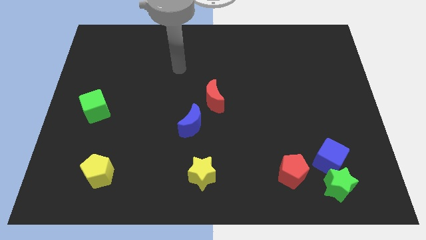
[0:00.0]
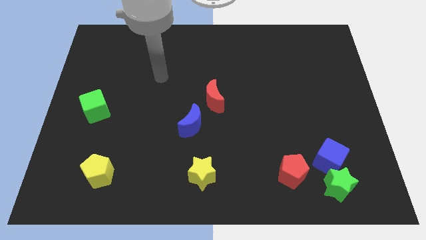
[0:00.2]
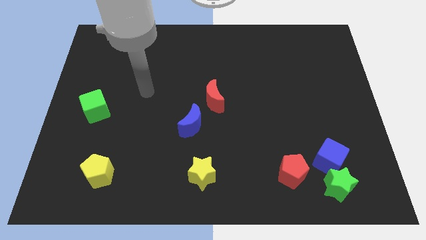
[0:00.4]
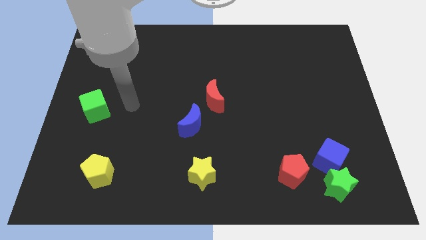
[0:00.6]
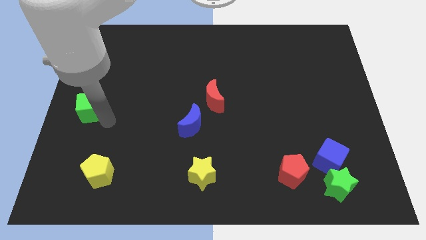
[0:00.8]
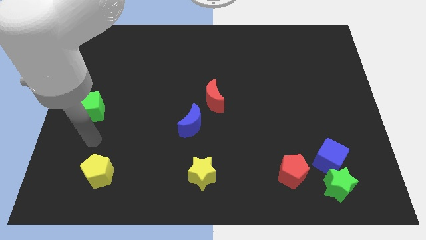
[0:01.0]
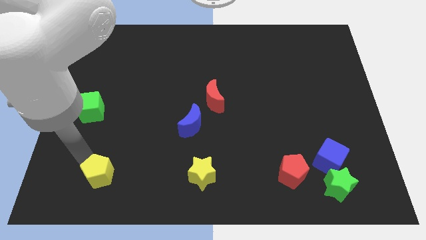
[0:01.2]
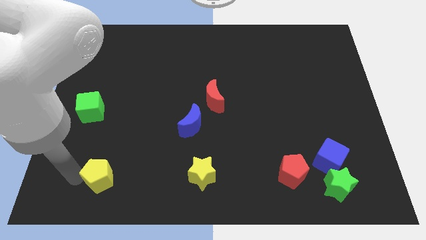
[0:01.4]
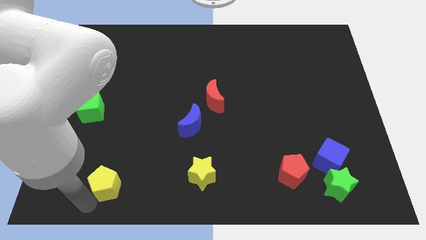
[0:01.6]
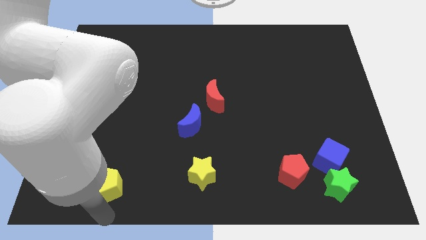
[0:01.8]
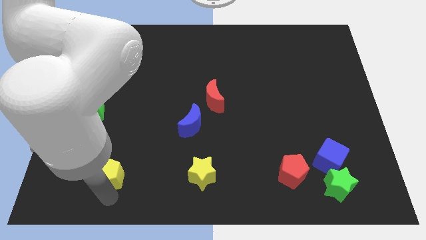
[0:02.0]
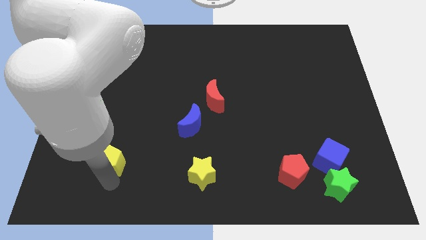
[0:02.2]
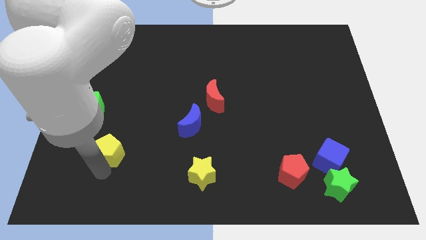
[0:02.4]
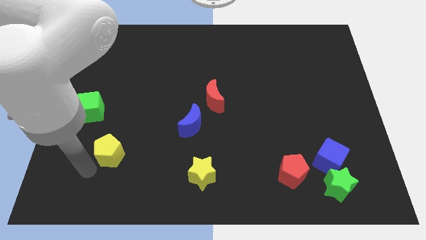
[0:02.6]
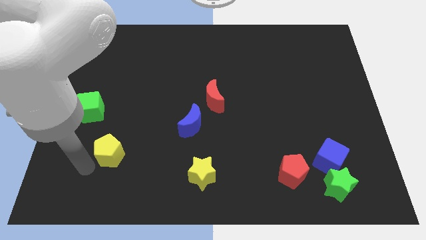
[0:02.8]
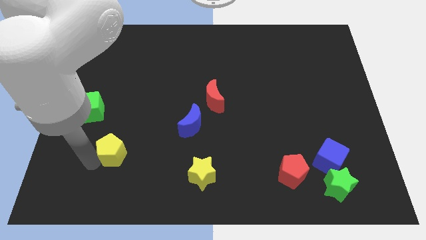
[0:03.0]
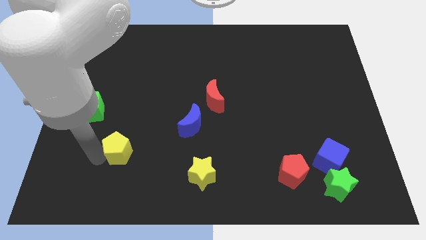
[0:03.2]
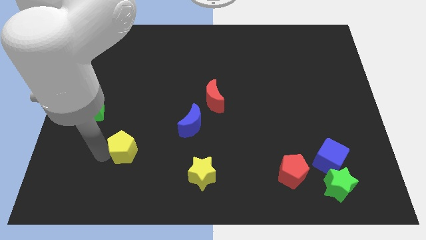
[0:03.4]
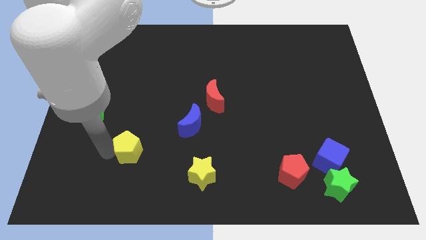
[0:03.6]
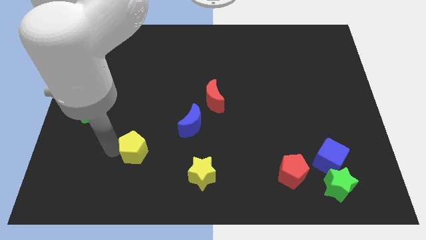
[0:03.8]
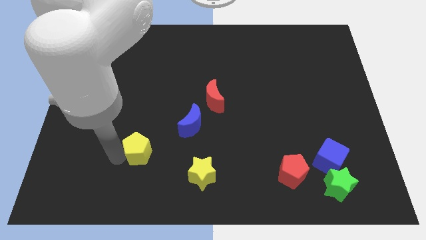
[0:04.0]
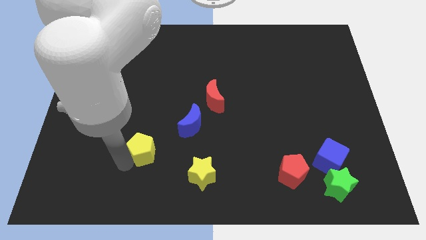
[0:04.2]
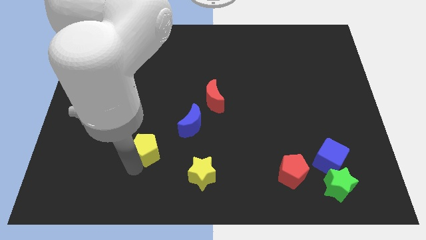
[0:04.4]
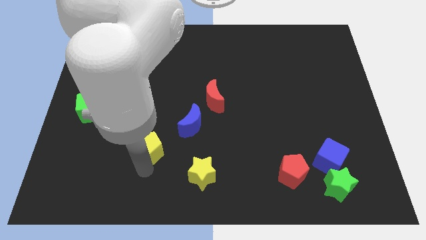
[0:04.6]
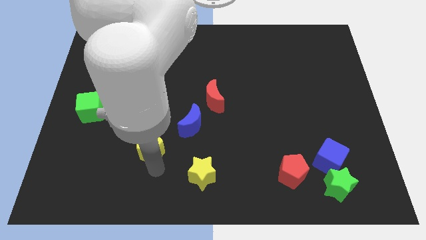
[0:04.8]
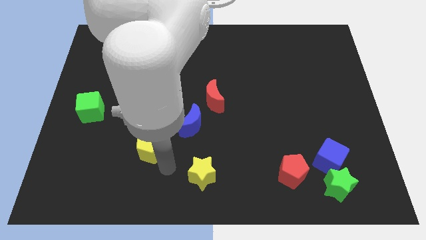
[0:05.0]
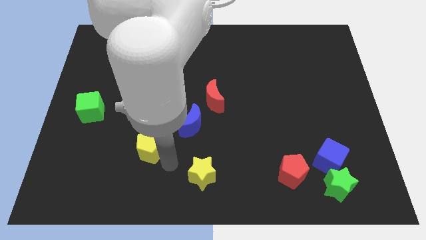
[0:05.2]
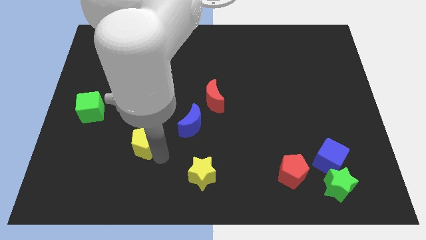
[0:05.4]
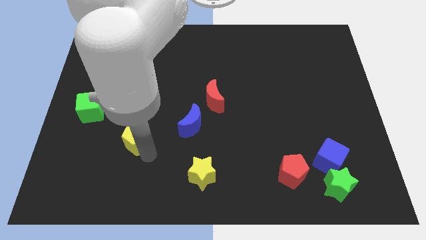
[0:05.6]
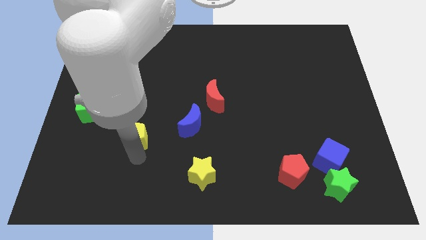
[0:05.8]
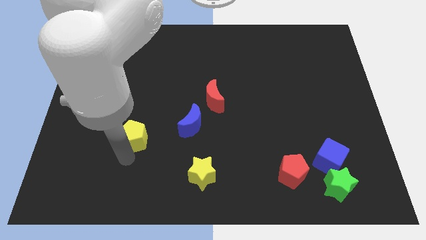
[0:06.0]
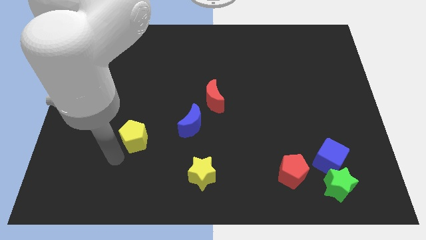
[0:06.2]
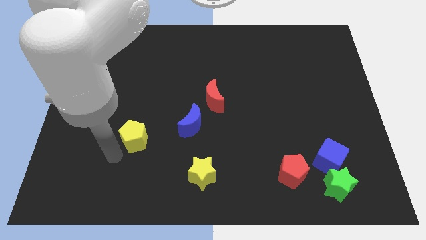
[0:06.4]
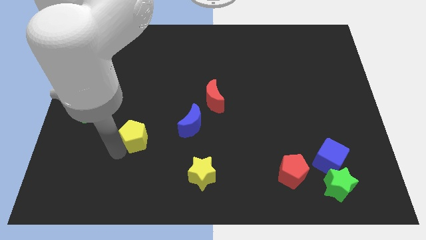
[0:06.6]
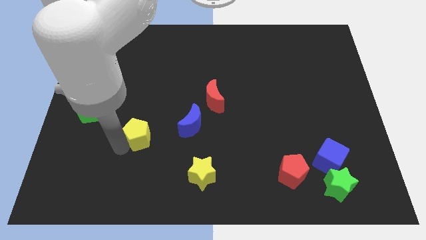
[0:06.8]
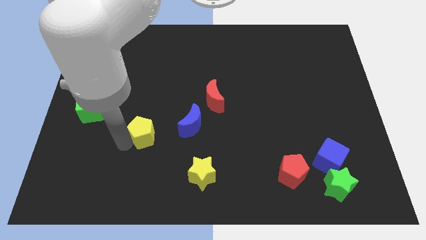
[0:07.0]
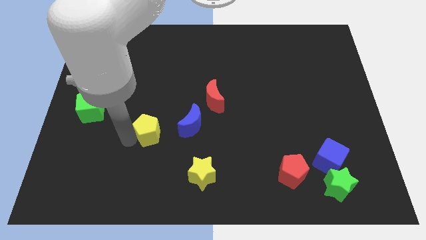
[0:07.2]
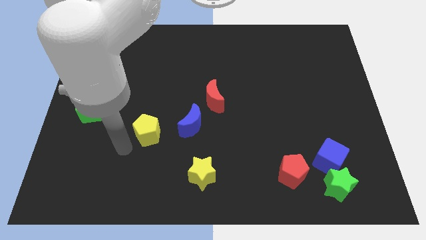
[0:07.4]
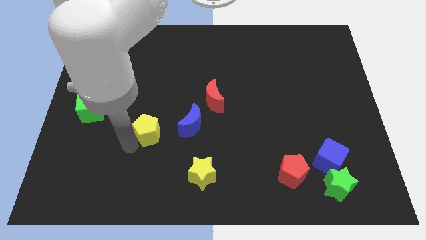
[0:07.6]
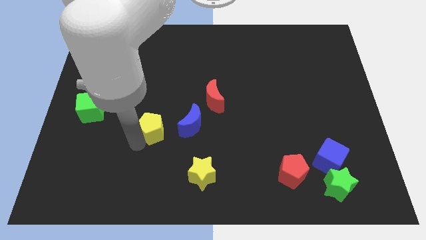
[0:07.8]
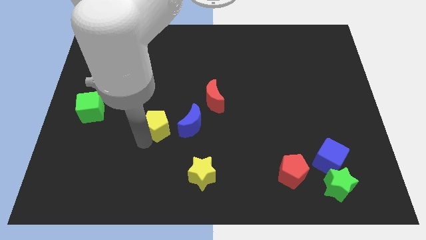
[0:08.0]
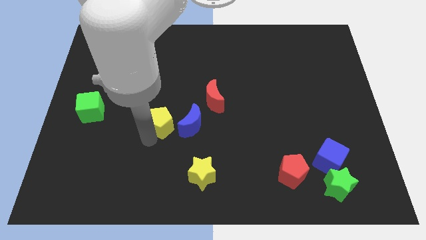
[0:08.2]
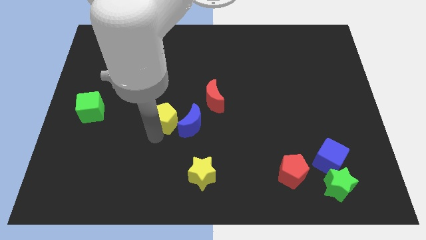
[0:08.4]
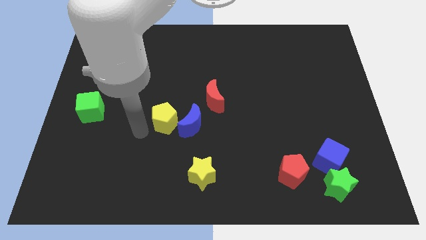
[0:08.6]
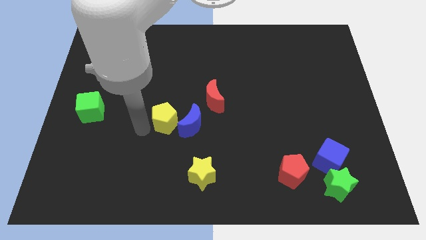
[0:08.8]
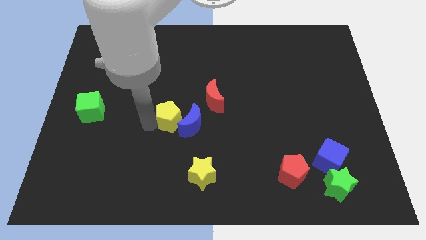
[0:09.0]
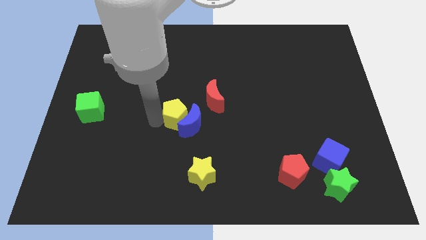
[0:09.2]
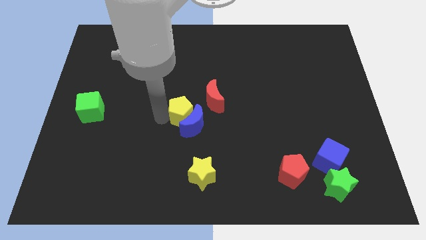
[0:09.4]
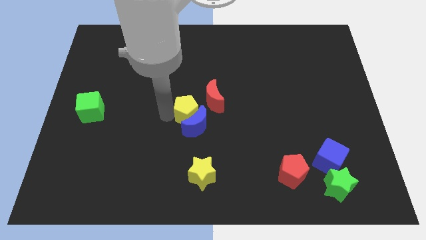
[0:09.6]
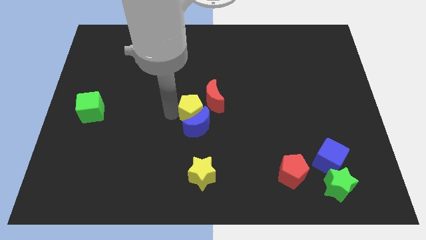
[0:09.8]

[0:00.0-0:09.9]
put the yellow pentagon next to the red moon

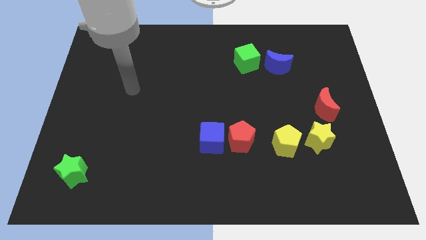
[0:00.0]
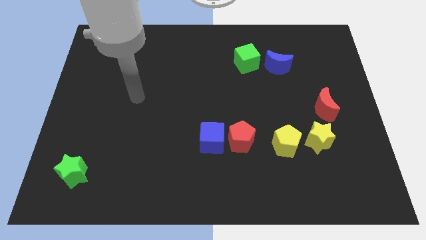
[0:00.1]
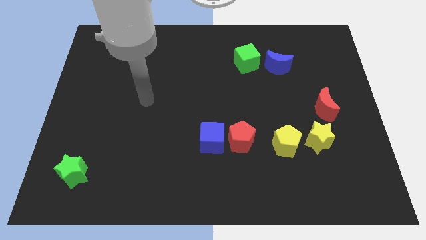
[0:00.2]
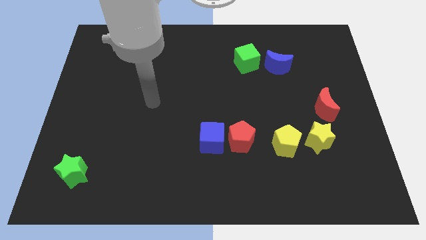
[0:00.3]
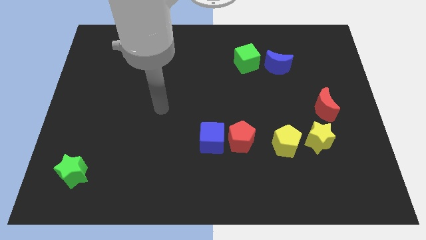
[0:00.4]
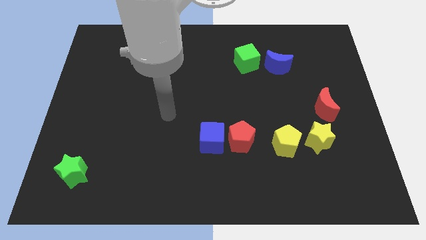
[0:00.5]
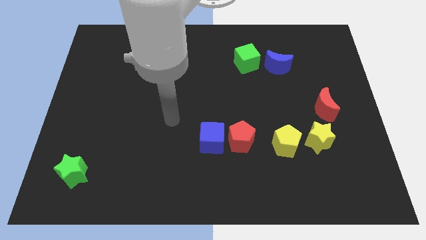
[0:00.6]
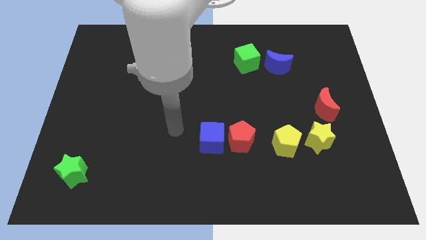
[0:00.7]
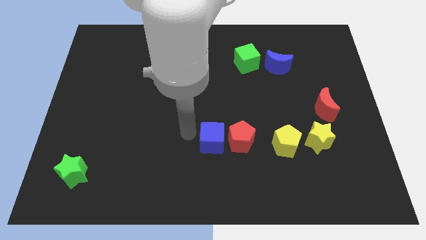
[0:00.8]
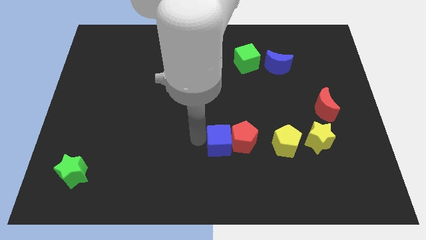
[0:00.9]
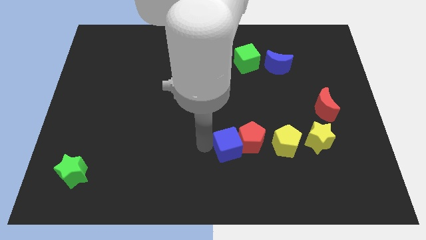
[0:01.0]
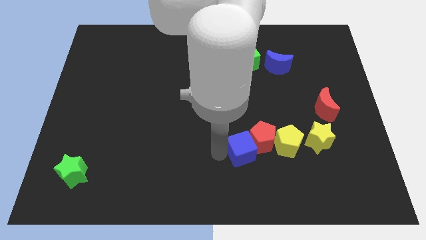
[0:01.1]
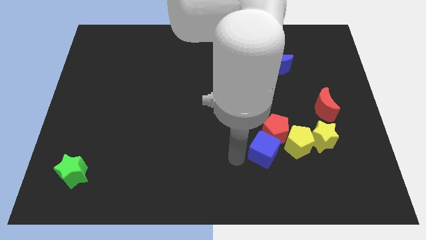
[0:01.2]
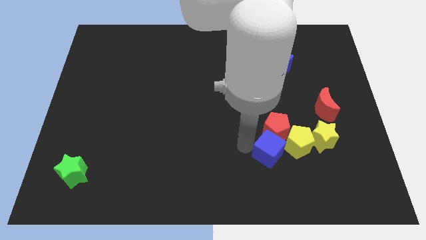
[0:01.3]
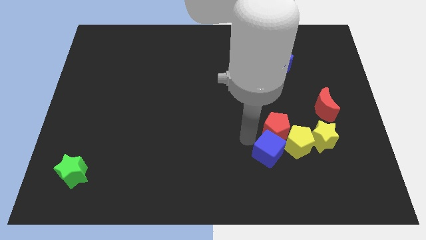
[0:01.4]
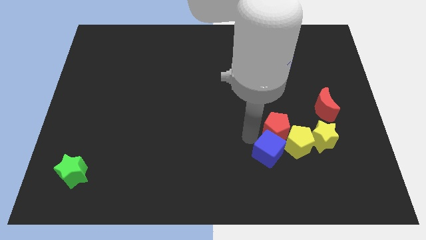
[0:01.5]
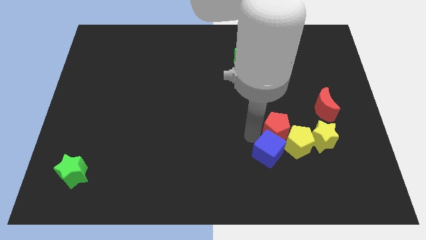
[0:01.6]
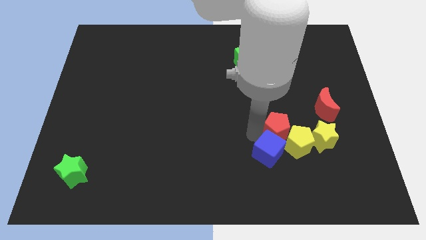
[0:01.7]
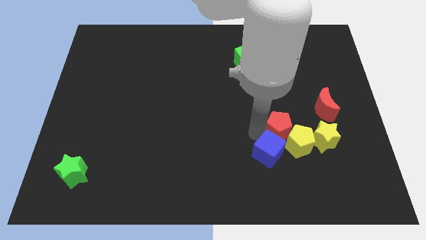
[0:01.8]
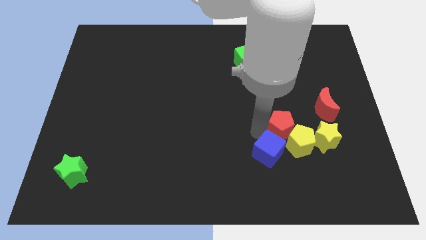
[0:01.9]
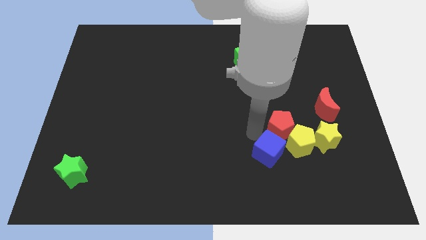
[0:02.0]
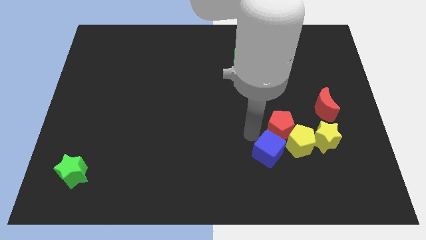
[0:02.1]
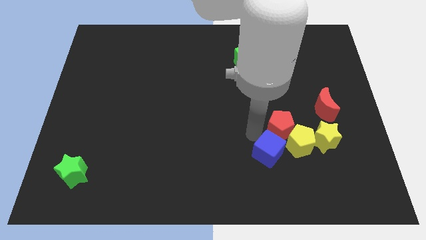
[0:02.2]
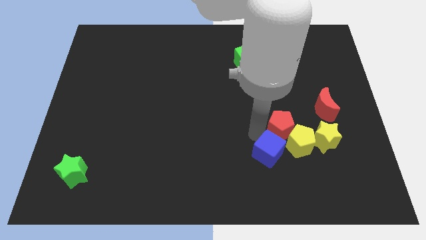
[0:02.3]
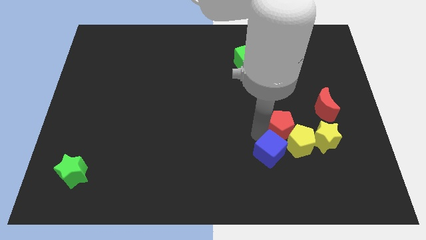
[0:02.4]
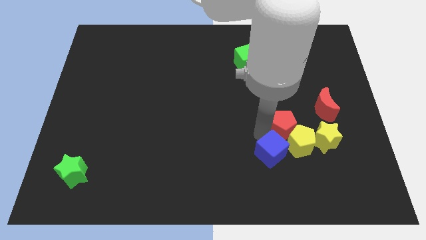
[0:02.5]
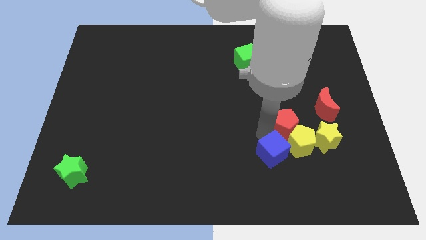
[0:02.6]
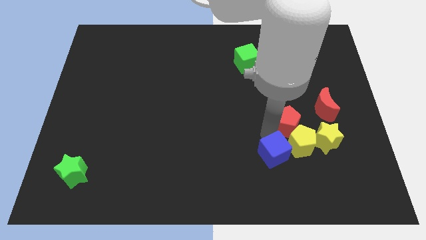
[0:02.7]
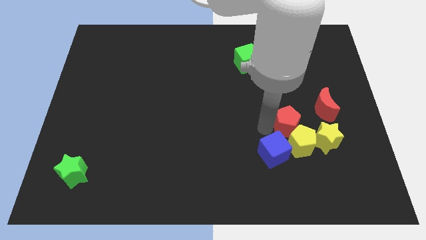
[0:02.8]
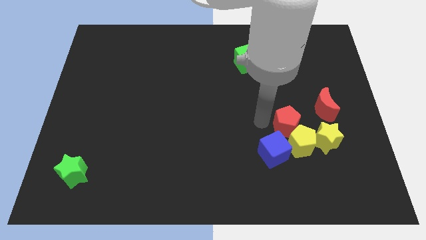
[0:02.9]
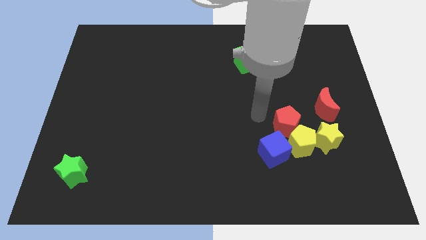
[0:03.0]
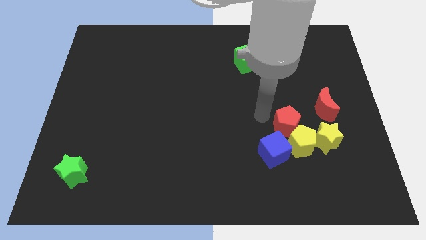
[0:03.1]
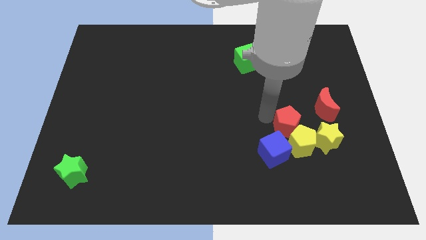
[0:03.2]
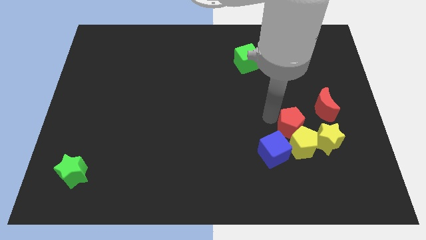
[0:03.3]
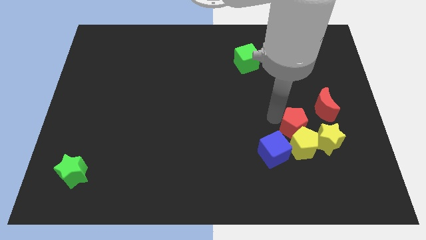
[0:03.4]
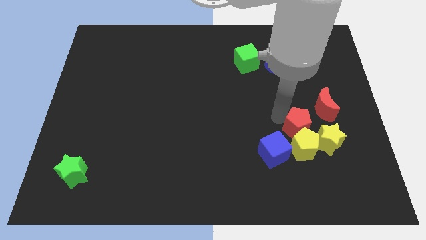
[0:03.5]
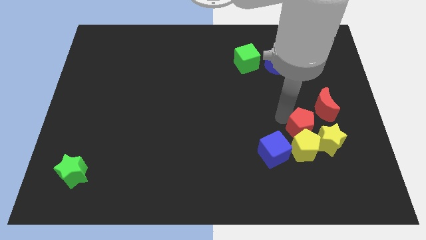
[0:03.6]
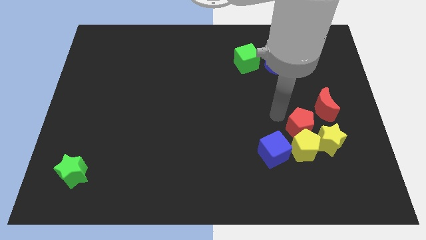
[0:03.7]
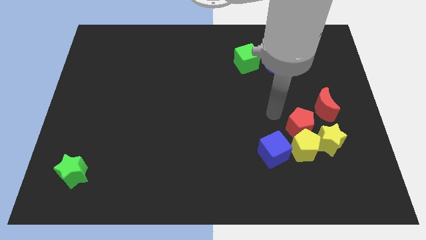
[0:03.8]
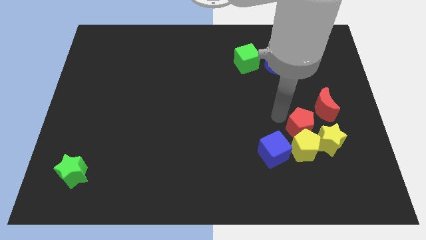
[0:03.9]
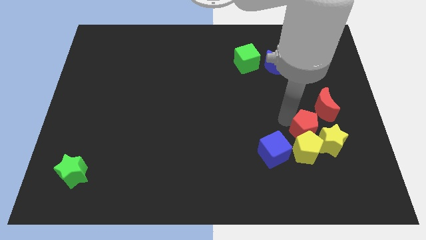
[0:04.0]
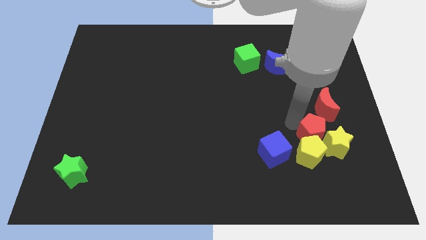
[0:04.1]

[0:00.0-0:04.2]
push the red pentagon close to the yellow star
